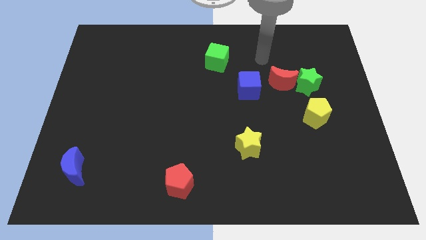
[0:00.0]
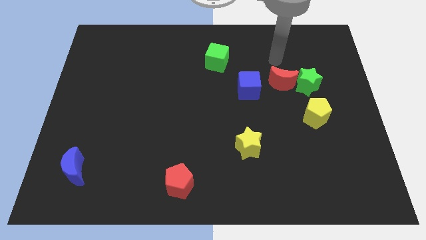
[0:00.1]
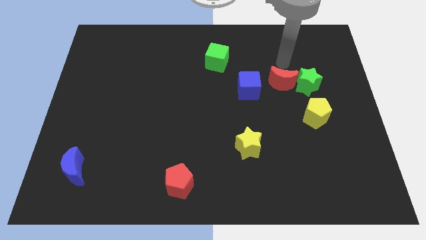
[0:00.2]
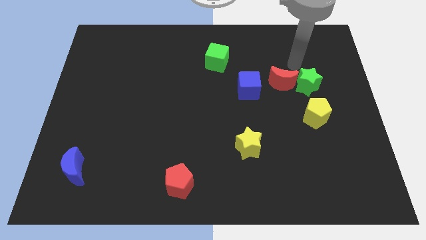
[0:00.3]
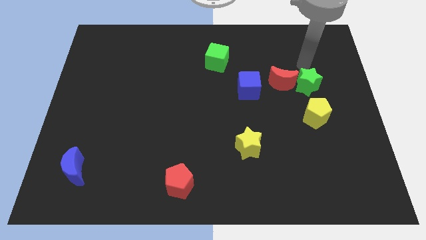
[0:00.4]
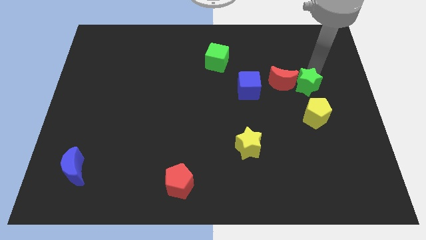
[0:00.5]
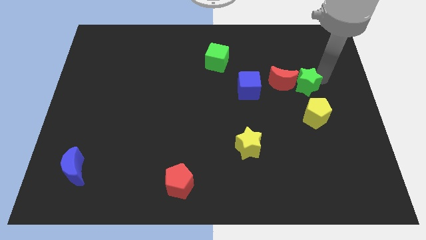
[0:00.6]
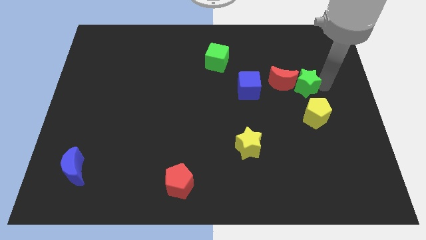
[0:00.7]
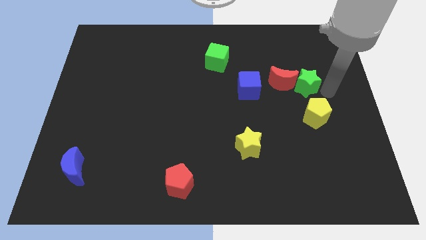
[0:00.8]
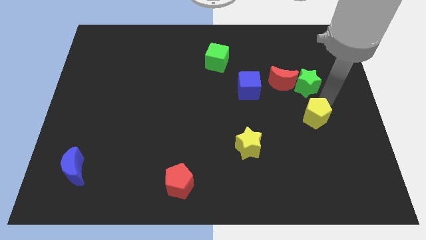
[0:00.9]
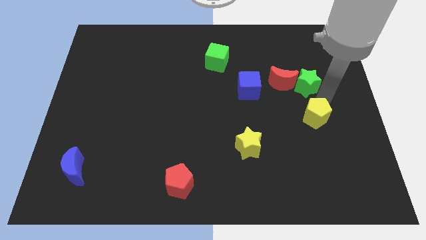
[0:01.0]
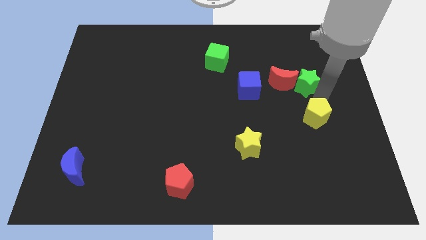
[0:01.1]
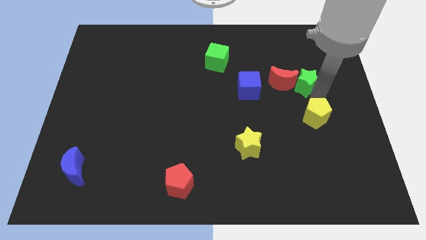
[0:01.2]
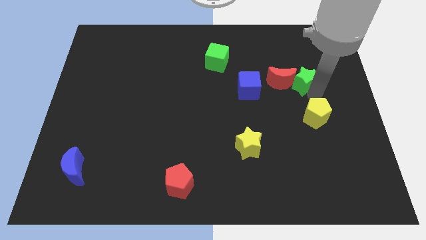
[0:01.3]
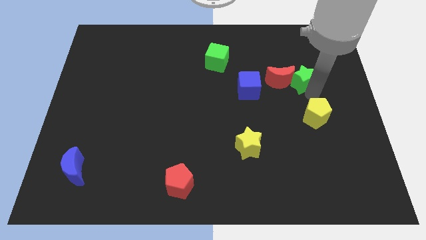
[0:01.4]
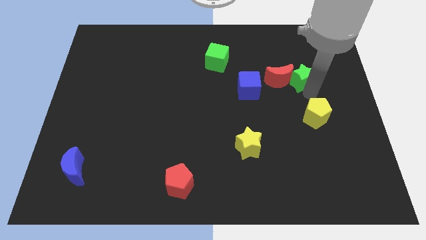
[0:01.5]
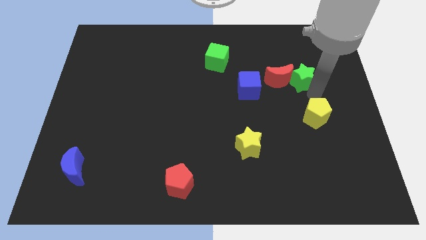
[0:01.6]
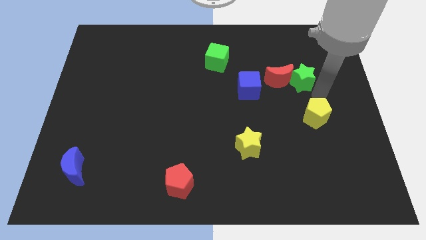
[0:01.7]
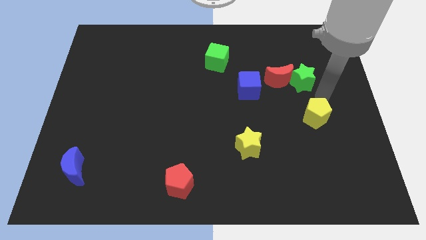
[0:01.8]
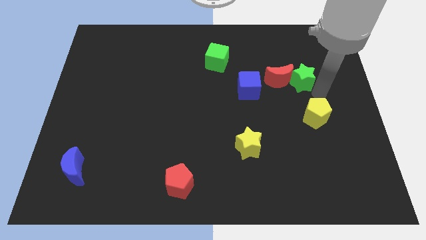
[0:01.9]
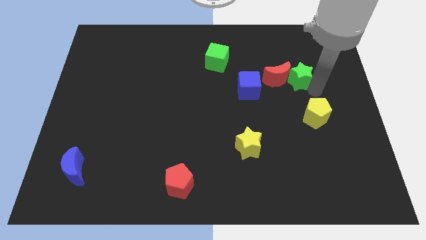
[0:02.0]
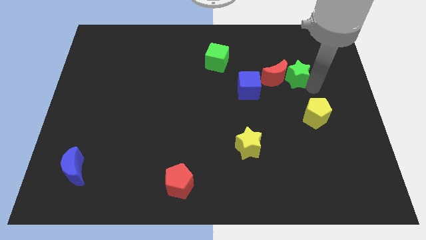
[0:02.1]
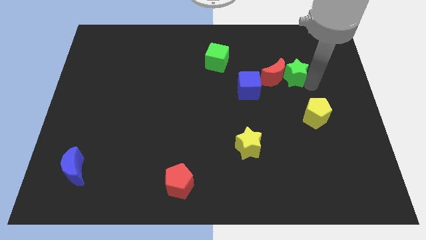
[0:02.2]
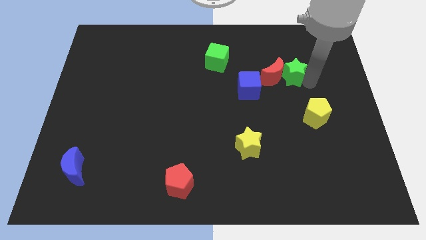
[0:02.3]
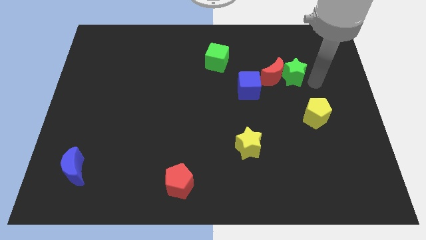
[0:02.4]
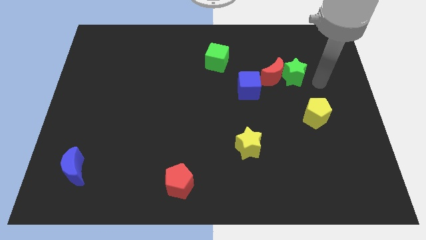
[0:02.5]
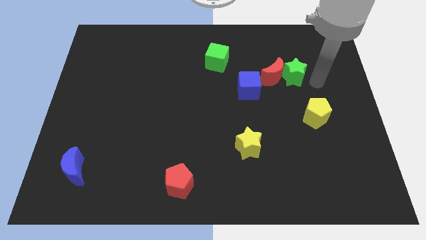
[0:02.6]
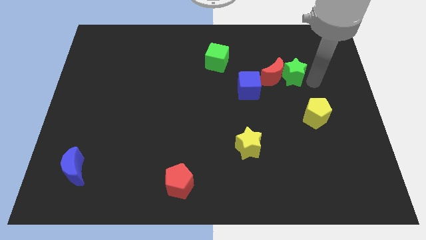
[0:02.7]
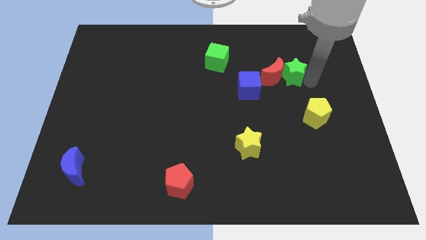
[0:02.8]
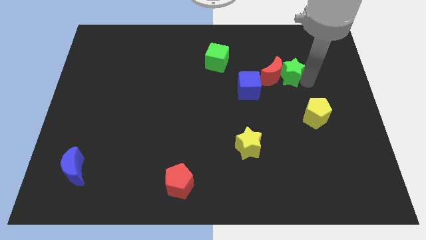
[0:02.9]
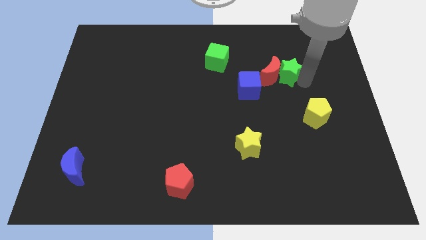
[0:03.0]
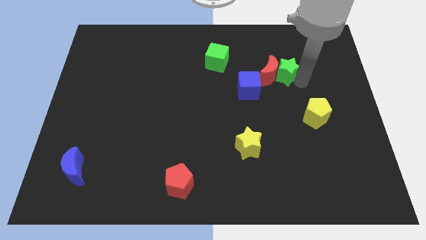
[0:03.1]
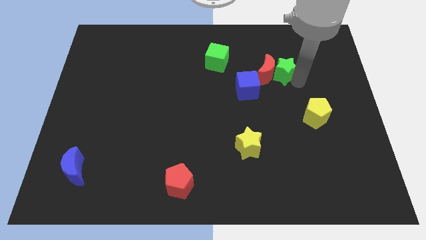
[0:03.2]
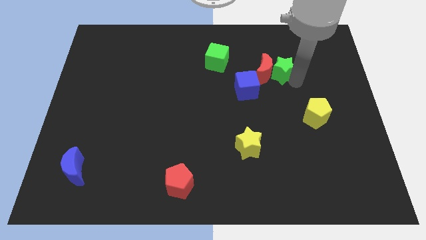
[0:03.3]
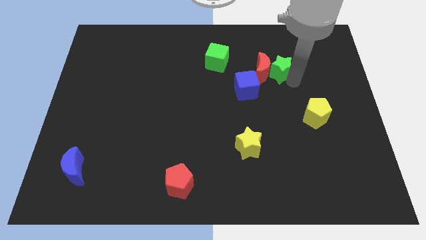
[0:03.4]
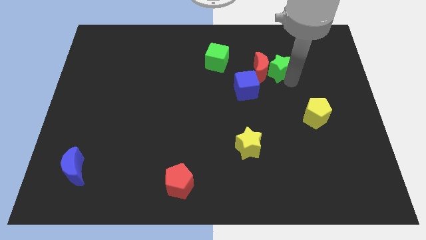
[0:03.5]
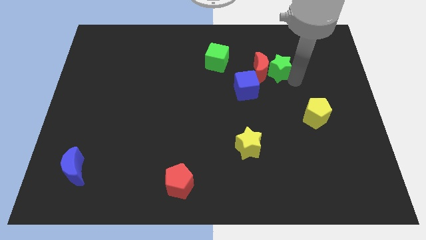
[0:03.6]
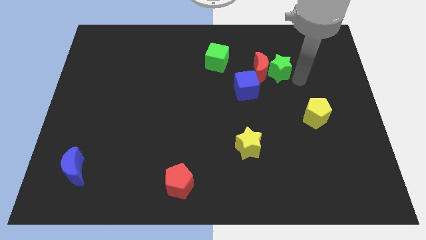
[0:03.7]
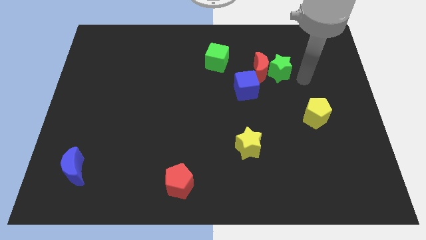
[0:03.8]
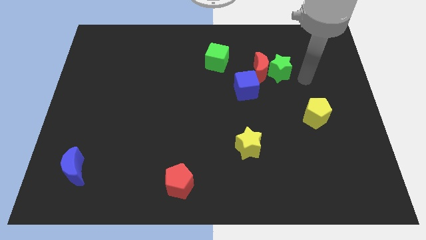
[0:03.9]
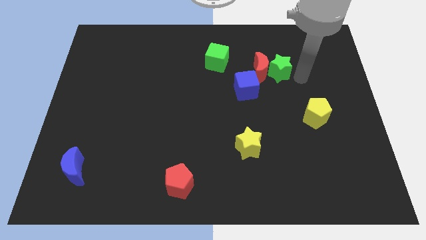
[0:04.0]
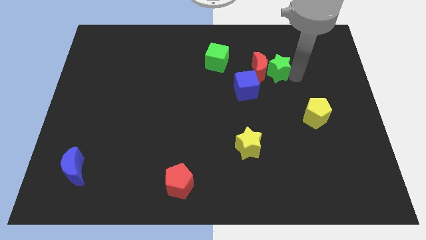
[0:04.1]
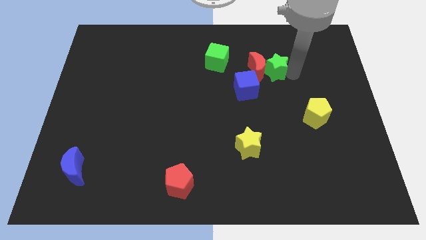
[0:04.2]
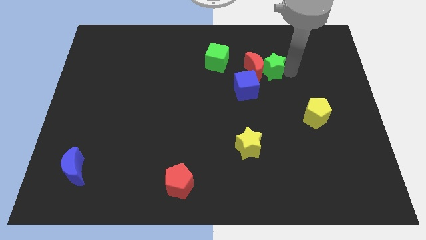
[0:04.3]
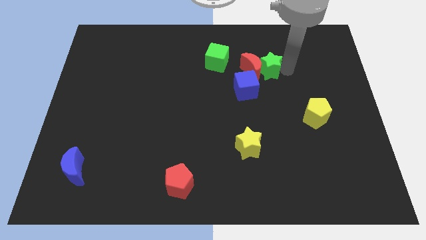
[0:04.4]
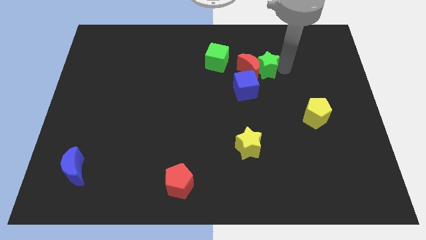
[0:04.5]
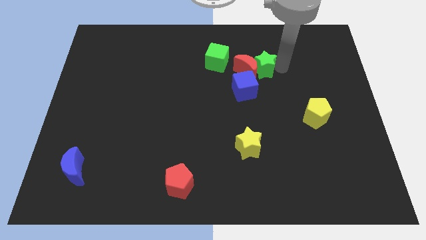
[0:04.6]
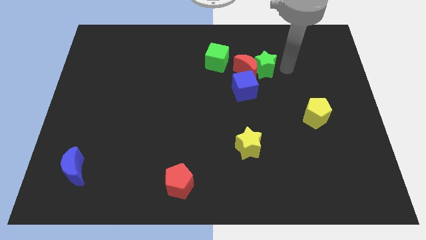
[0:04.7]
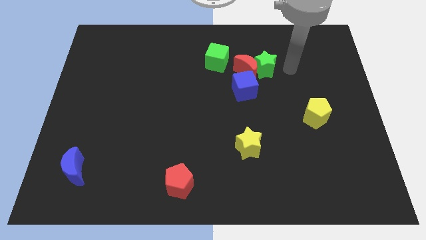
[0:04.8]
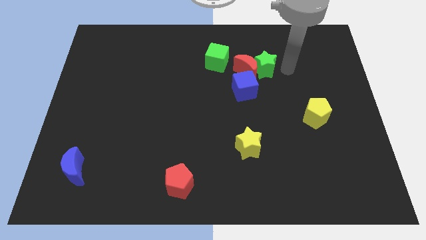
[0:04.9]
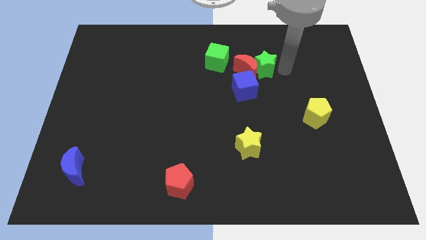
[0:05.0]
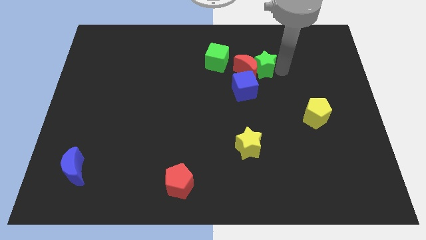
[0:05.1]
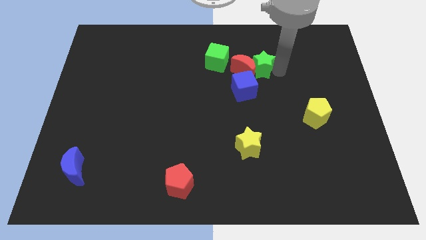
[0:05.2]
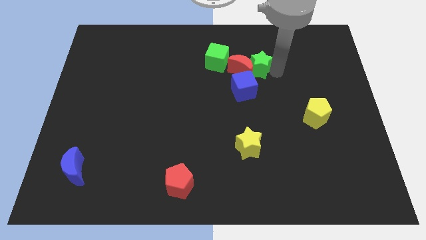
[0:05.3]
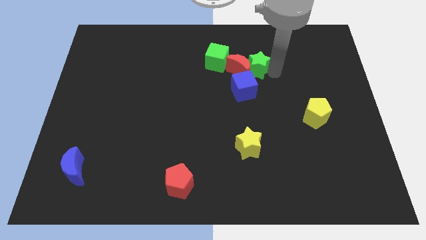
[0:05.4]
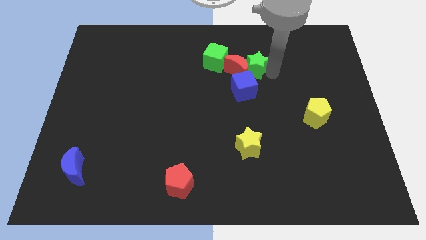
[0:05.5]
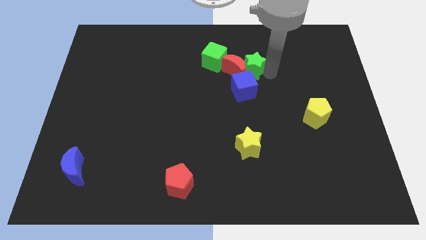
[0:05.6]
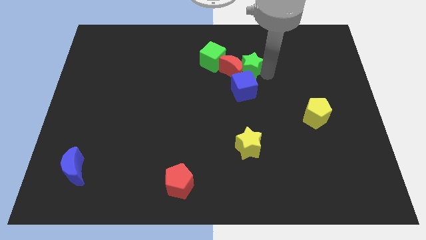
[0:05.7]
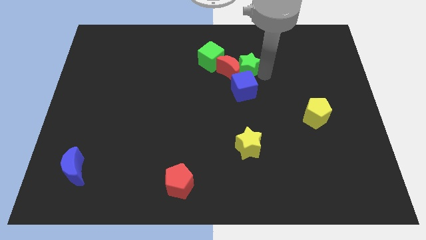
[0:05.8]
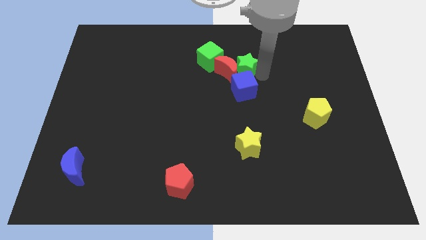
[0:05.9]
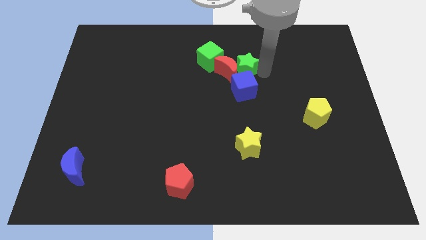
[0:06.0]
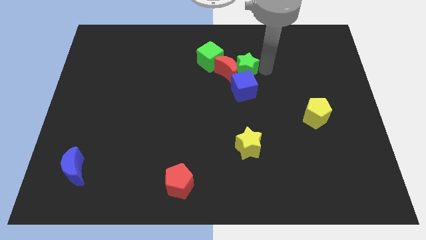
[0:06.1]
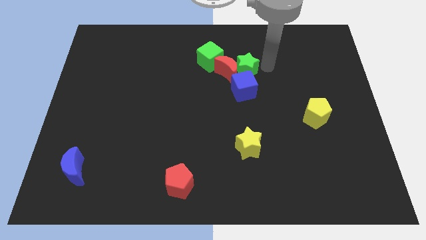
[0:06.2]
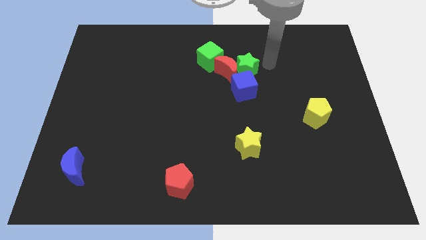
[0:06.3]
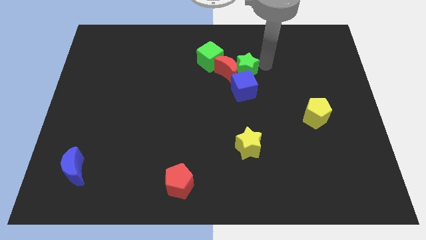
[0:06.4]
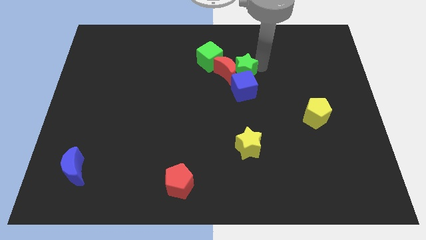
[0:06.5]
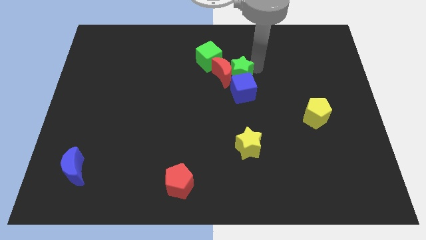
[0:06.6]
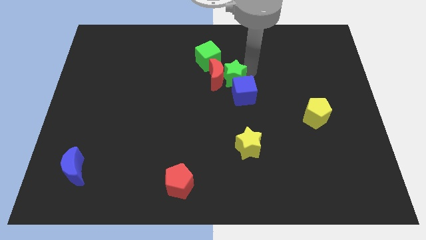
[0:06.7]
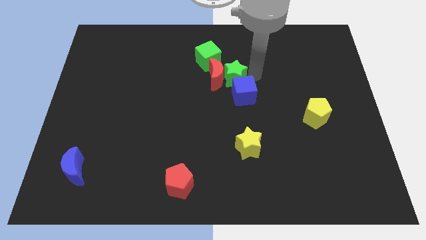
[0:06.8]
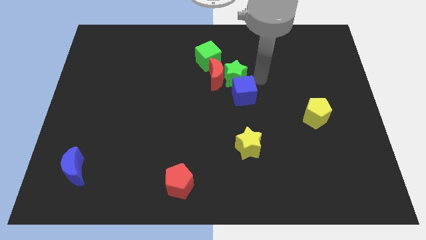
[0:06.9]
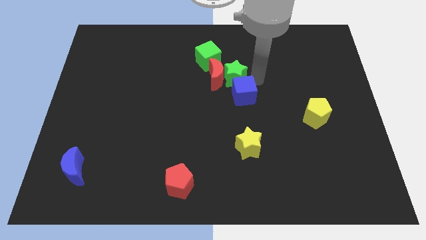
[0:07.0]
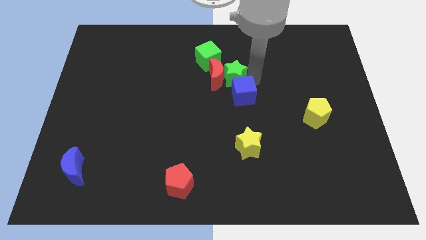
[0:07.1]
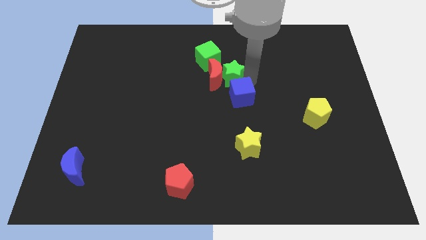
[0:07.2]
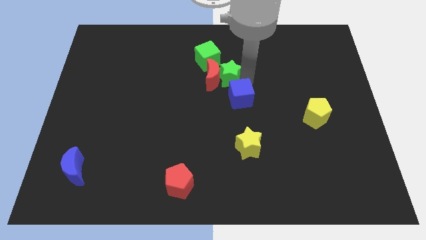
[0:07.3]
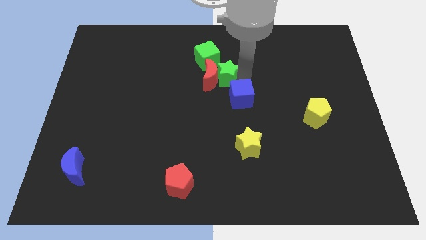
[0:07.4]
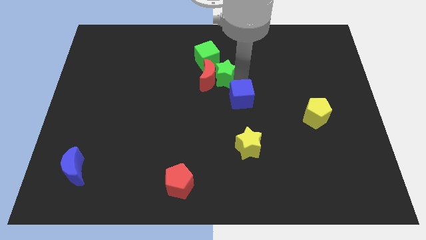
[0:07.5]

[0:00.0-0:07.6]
slide the green star to the left

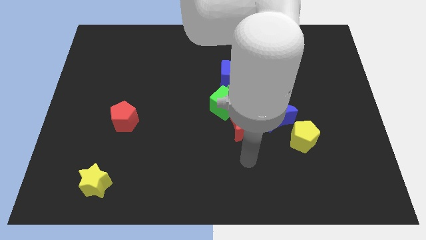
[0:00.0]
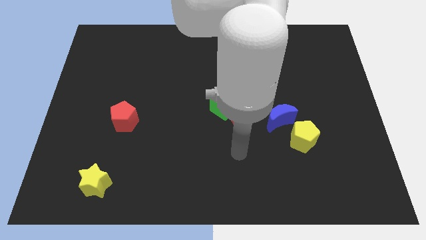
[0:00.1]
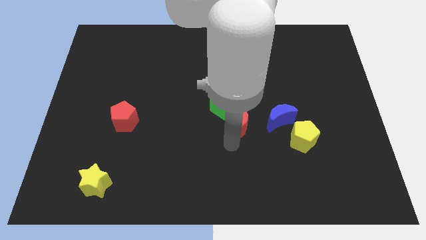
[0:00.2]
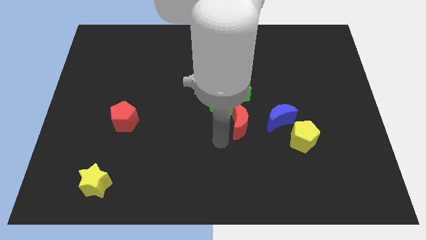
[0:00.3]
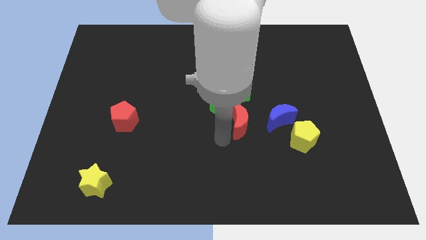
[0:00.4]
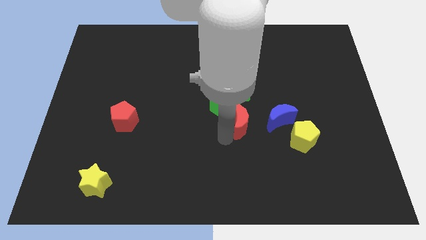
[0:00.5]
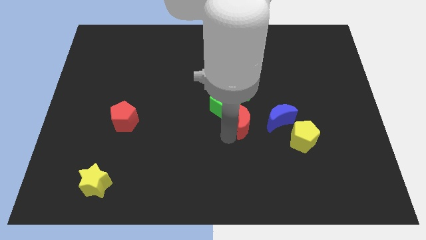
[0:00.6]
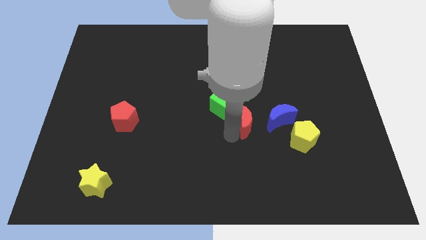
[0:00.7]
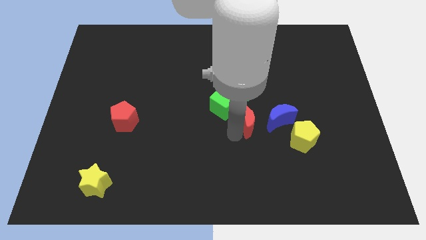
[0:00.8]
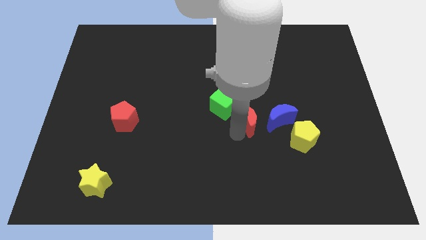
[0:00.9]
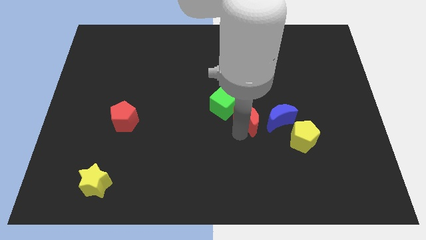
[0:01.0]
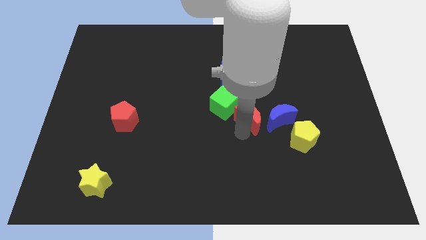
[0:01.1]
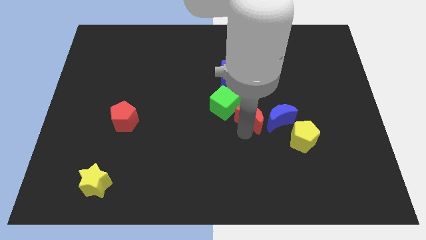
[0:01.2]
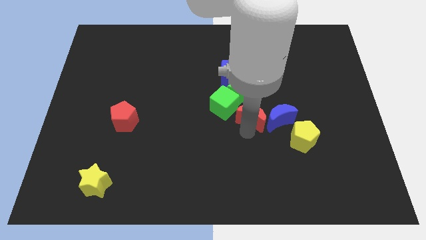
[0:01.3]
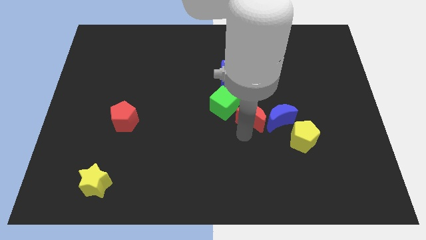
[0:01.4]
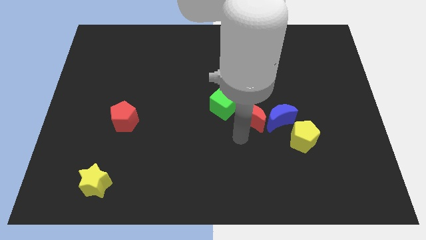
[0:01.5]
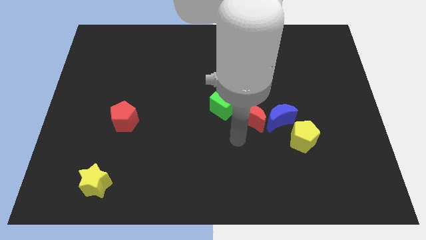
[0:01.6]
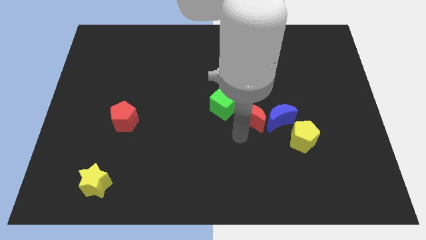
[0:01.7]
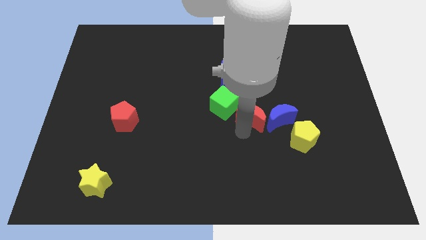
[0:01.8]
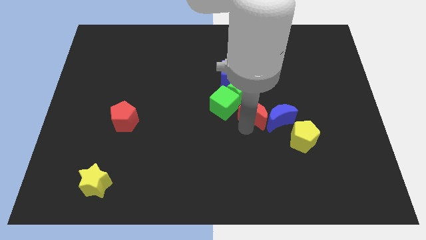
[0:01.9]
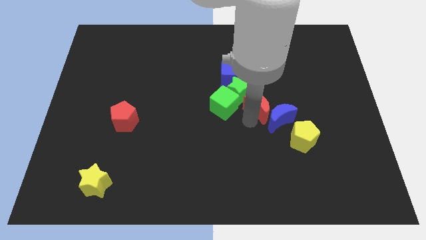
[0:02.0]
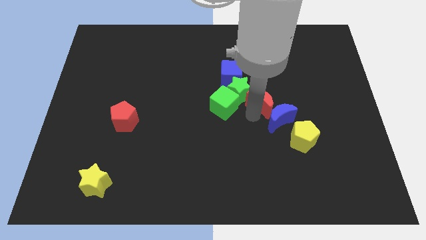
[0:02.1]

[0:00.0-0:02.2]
slightly slide the red moon up and right diagonally
